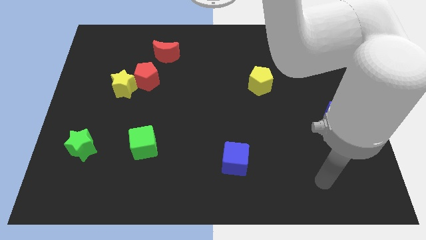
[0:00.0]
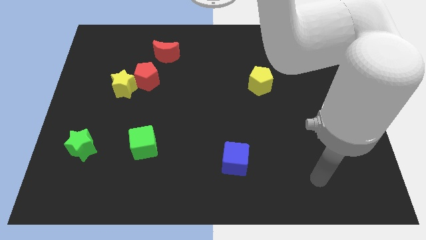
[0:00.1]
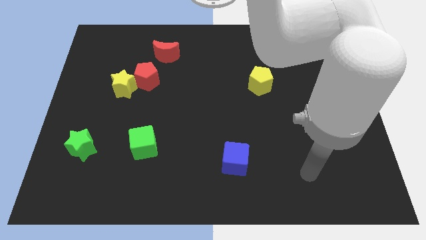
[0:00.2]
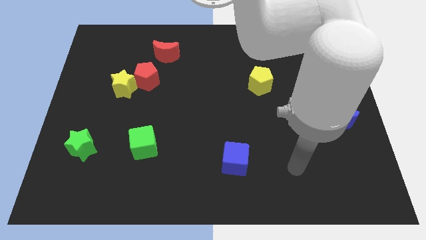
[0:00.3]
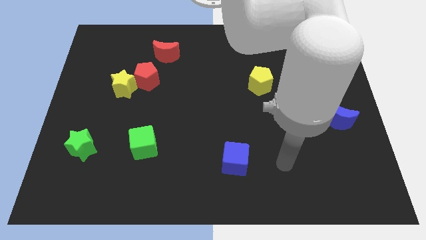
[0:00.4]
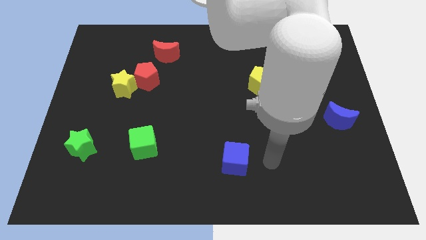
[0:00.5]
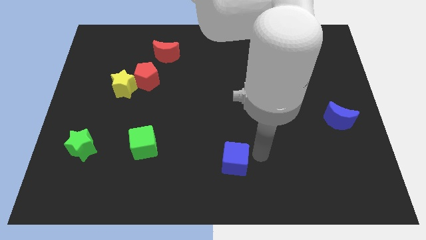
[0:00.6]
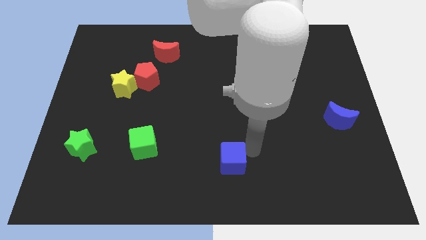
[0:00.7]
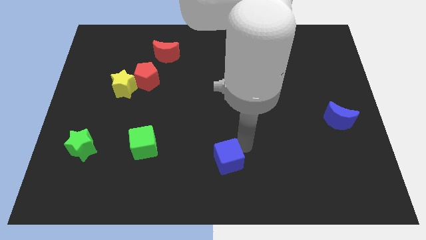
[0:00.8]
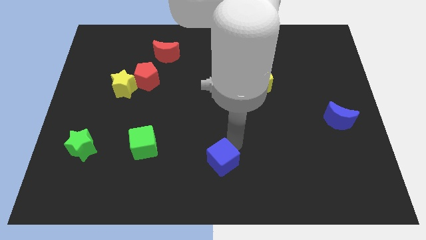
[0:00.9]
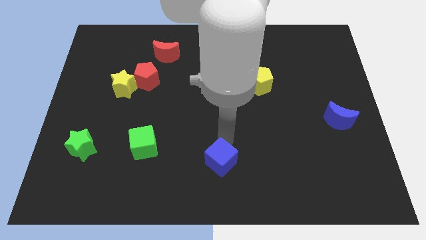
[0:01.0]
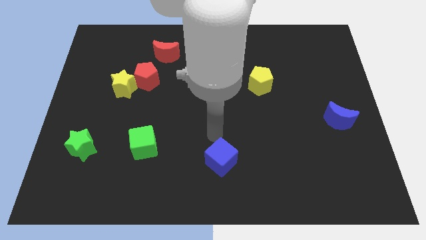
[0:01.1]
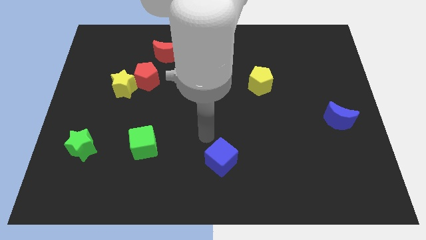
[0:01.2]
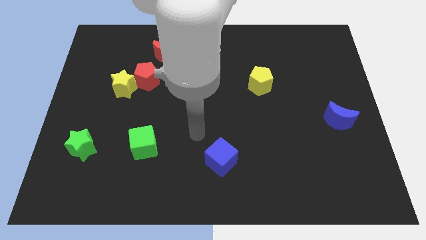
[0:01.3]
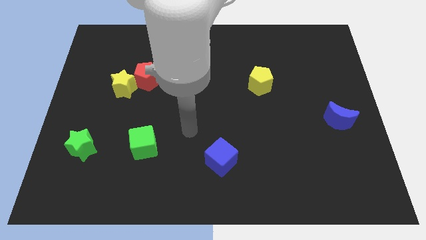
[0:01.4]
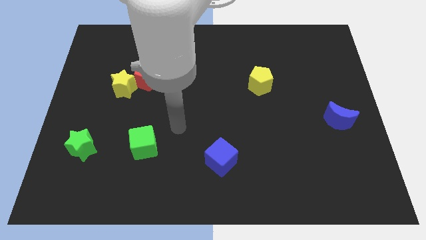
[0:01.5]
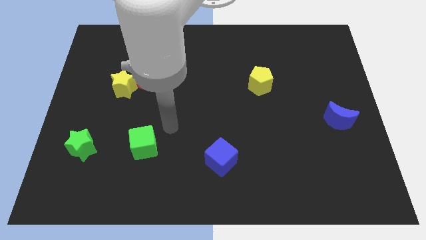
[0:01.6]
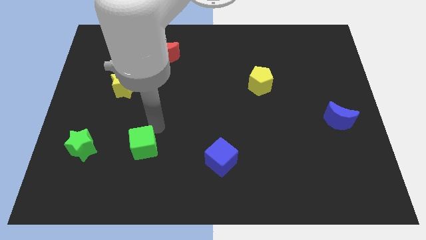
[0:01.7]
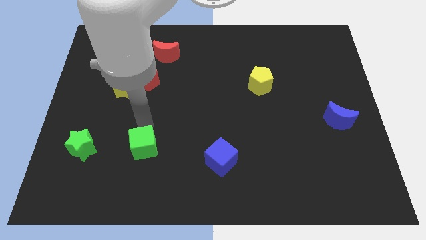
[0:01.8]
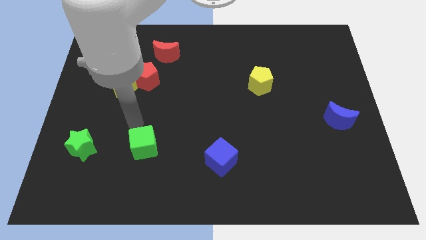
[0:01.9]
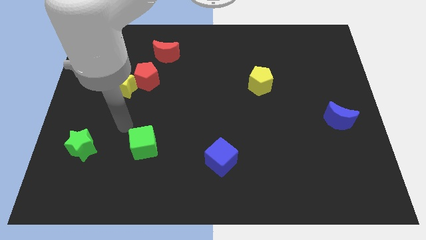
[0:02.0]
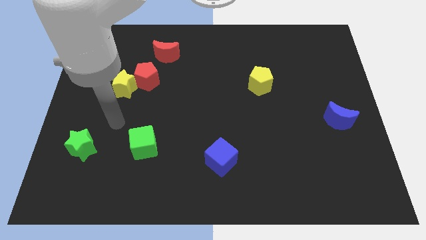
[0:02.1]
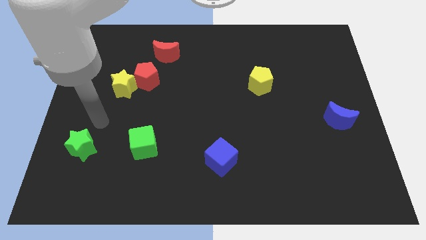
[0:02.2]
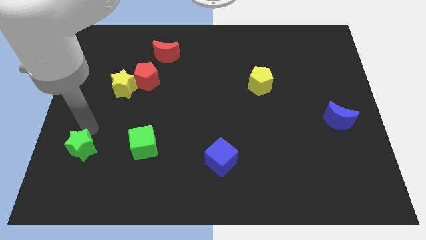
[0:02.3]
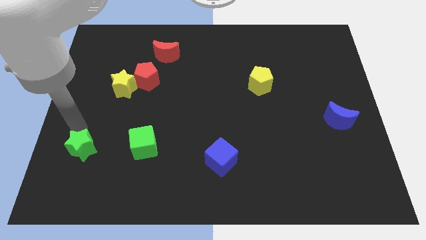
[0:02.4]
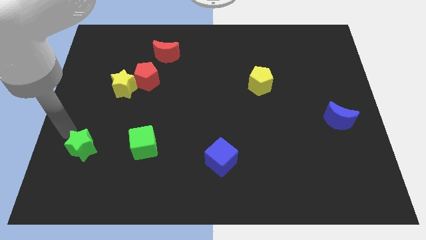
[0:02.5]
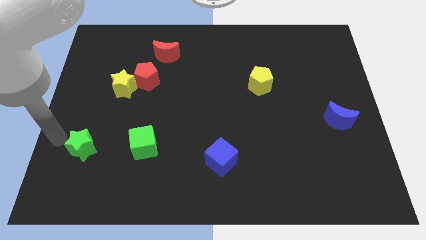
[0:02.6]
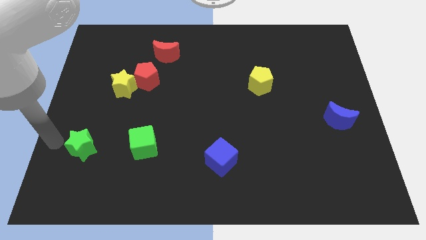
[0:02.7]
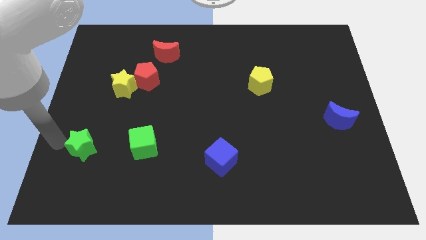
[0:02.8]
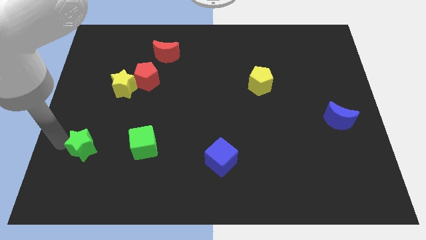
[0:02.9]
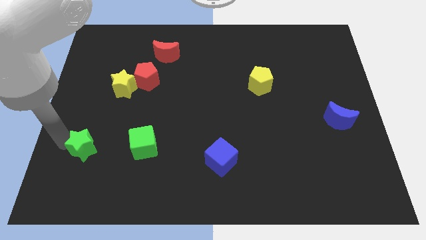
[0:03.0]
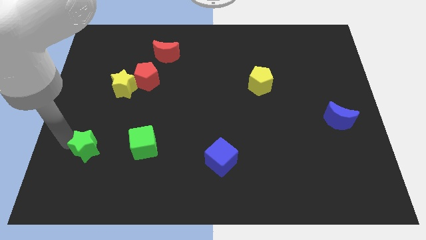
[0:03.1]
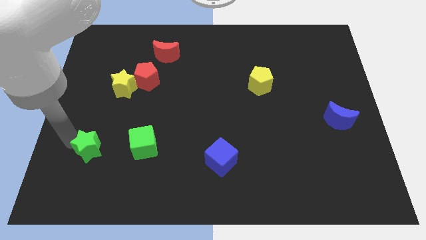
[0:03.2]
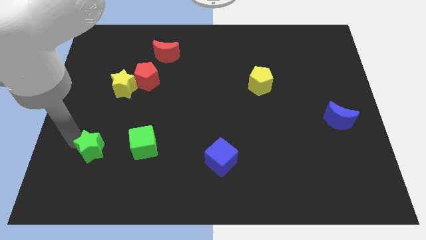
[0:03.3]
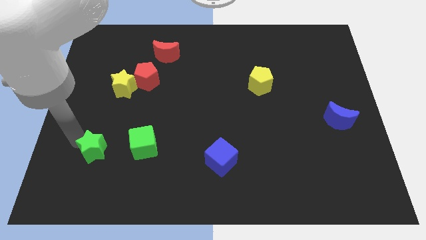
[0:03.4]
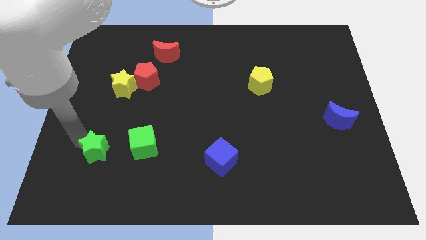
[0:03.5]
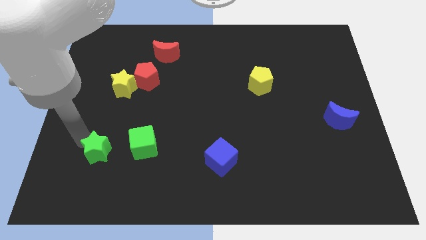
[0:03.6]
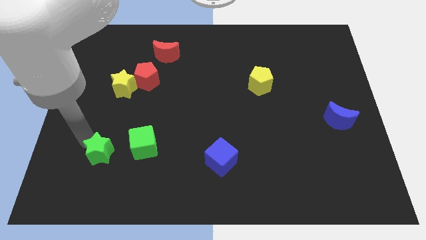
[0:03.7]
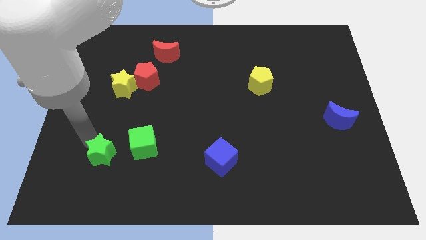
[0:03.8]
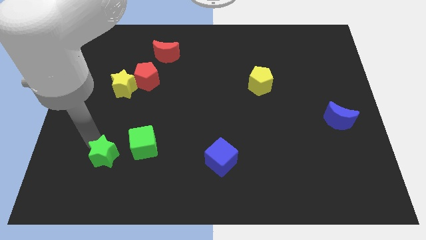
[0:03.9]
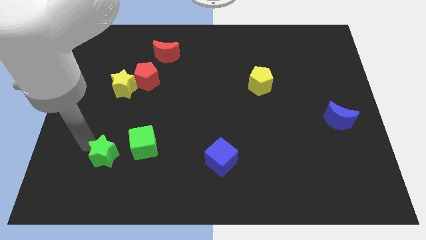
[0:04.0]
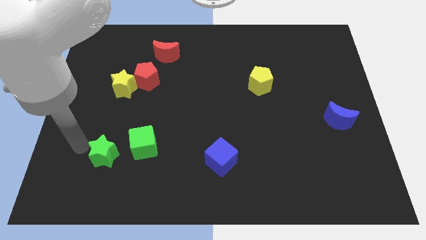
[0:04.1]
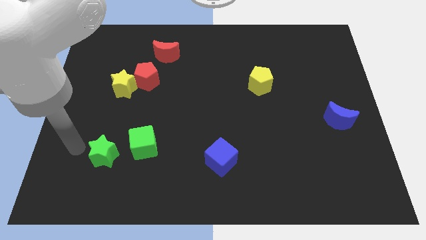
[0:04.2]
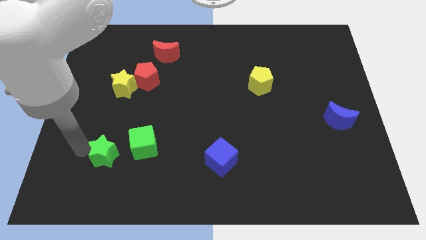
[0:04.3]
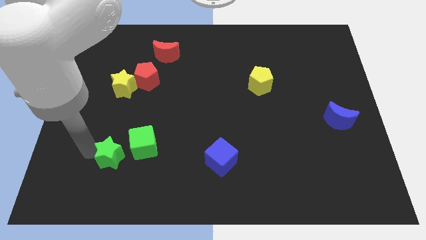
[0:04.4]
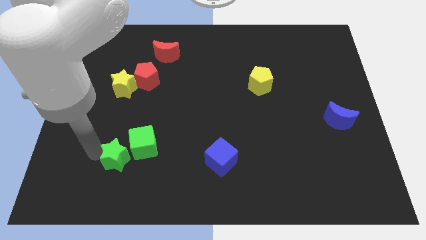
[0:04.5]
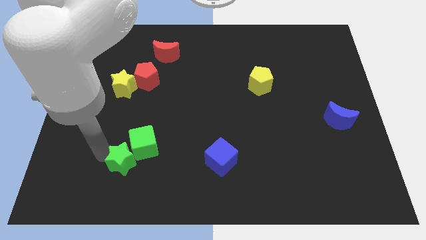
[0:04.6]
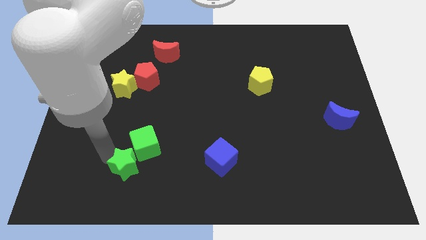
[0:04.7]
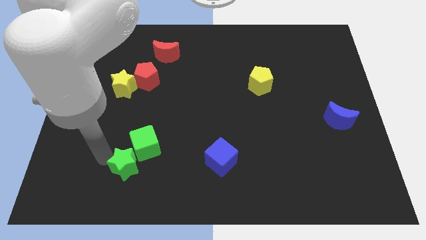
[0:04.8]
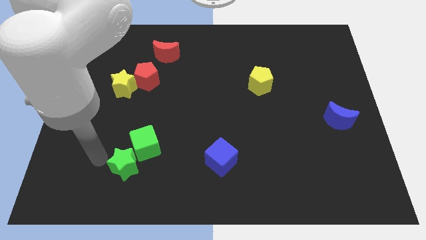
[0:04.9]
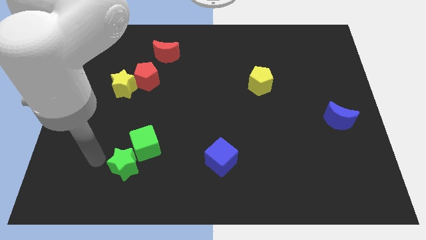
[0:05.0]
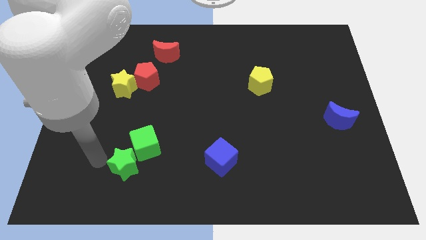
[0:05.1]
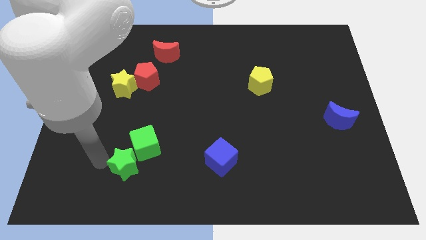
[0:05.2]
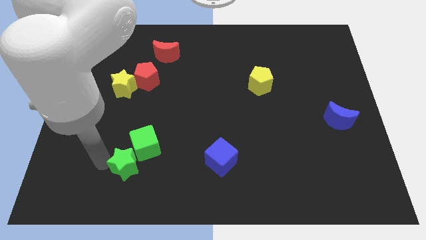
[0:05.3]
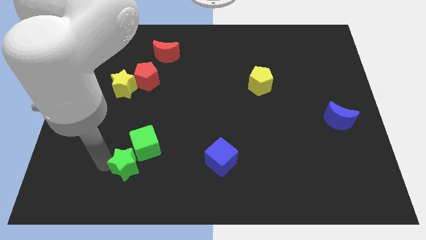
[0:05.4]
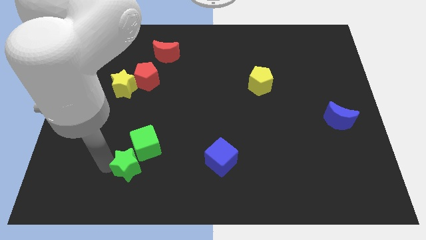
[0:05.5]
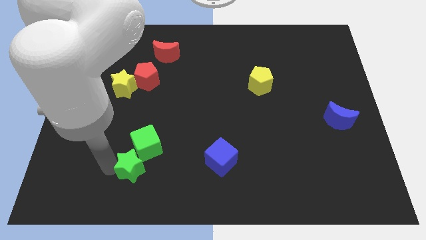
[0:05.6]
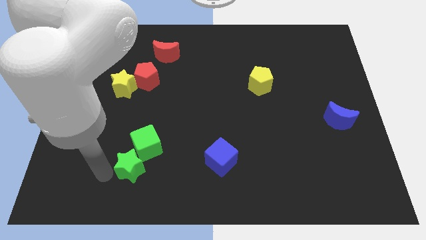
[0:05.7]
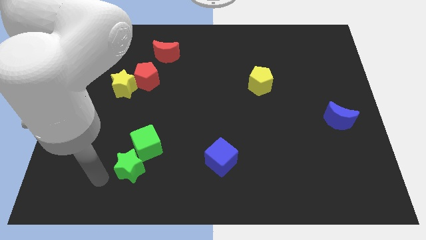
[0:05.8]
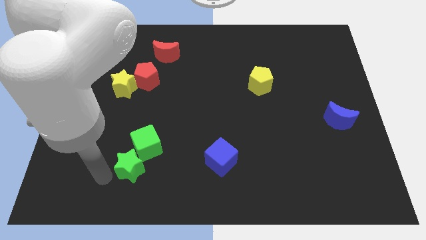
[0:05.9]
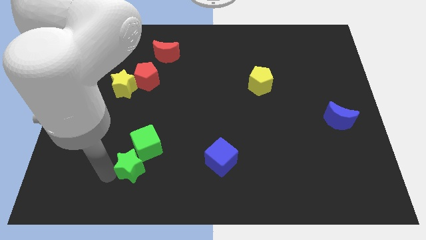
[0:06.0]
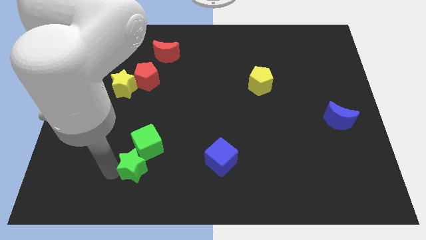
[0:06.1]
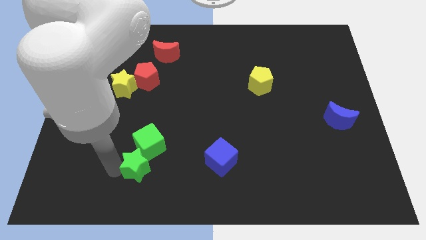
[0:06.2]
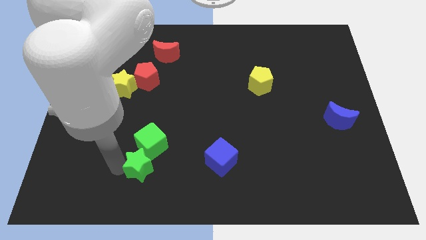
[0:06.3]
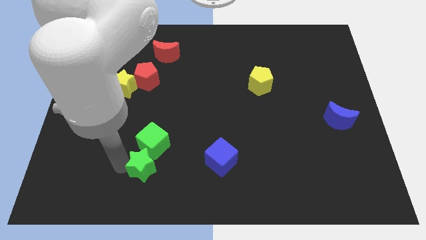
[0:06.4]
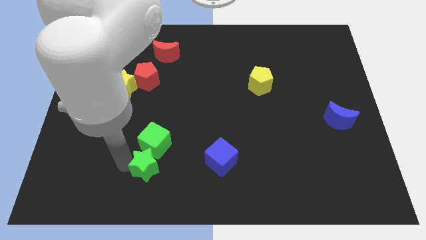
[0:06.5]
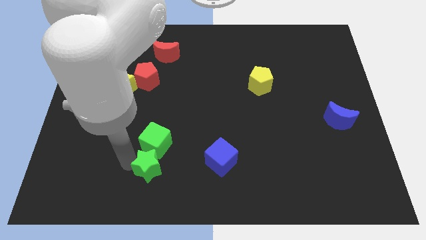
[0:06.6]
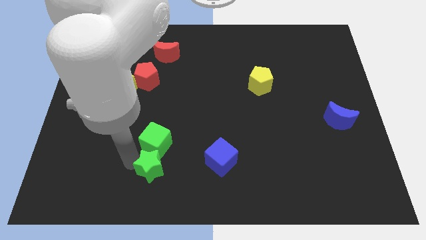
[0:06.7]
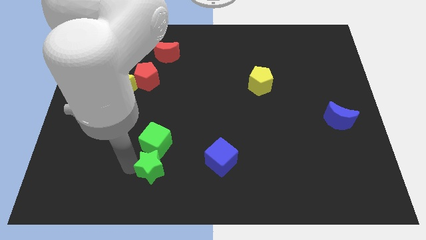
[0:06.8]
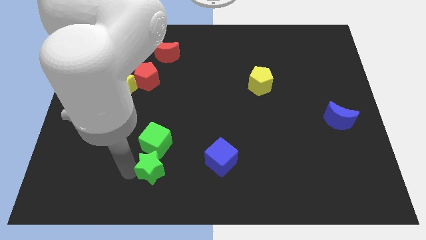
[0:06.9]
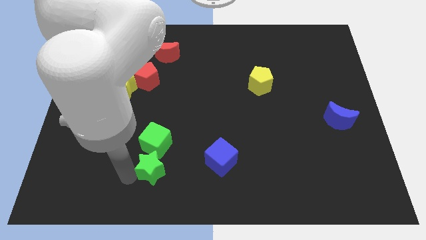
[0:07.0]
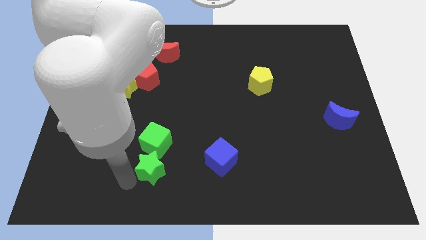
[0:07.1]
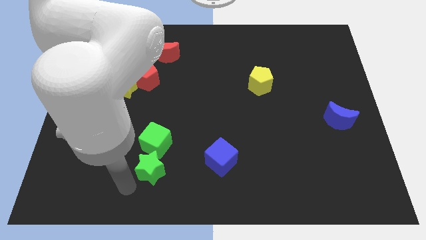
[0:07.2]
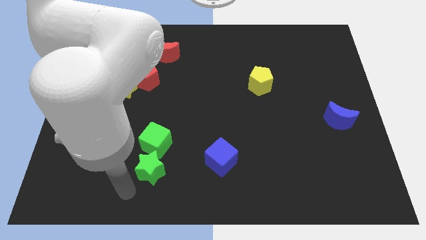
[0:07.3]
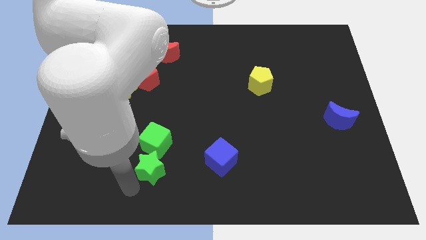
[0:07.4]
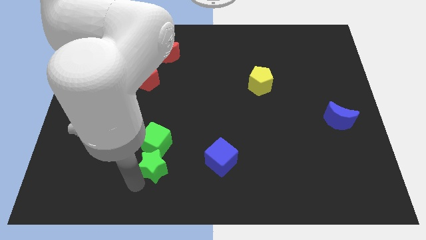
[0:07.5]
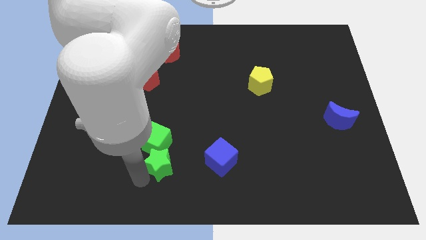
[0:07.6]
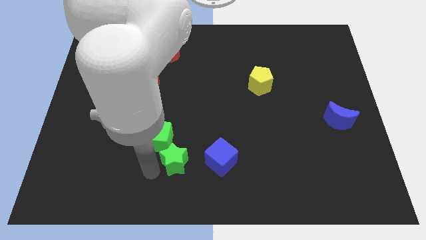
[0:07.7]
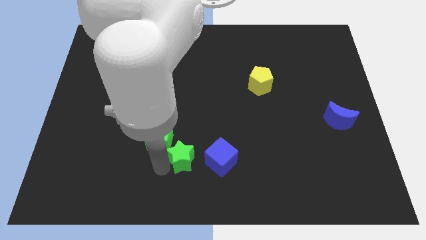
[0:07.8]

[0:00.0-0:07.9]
slide the green star right of the green cube
